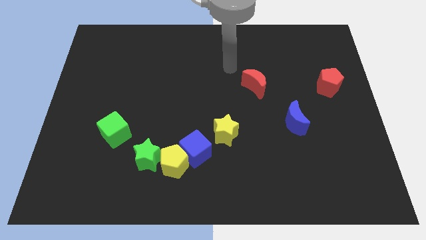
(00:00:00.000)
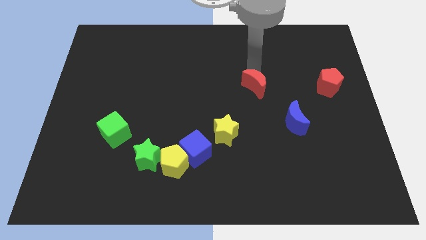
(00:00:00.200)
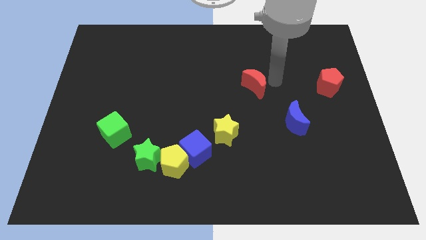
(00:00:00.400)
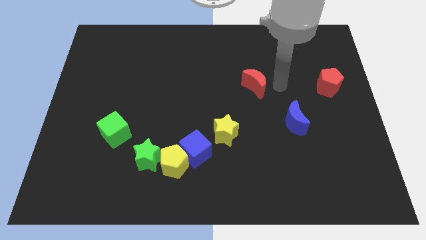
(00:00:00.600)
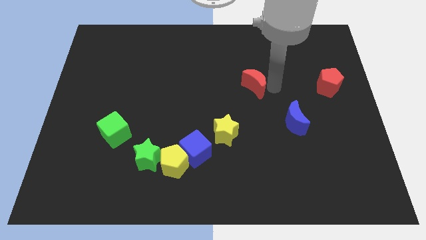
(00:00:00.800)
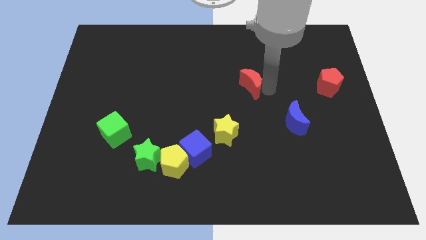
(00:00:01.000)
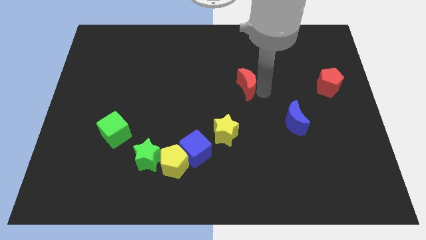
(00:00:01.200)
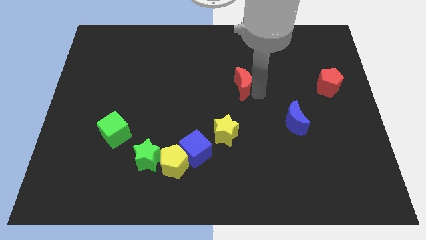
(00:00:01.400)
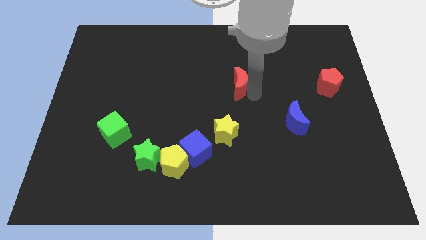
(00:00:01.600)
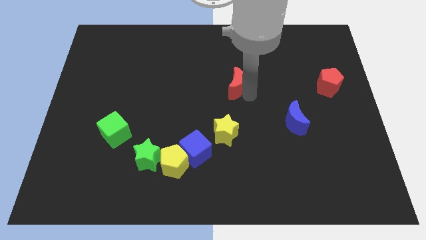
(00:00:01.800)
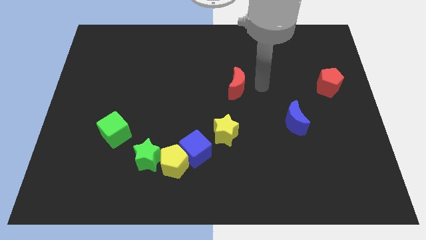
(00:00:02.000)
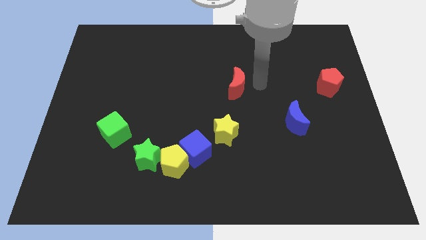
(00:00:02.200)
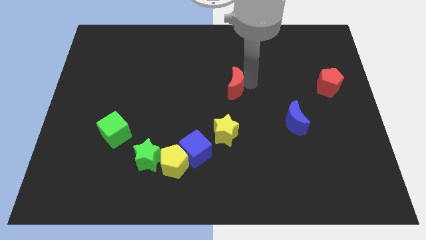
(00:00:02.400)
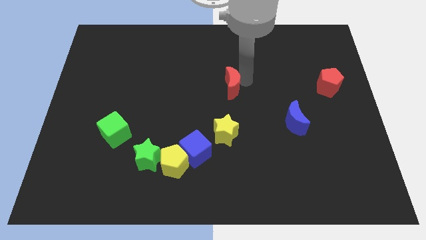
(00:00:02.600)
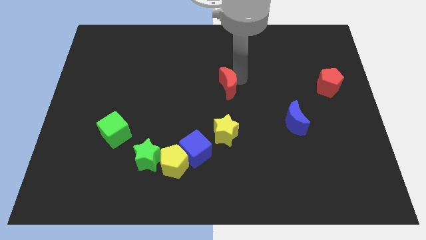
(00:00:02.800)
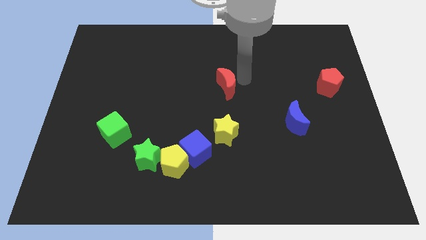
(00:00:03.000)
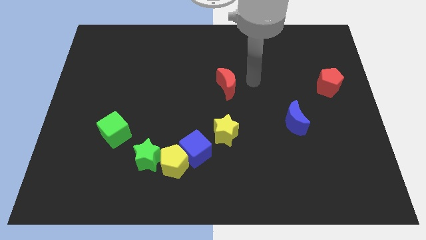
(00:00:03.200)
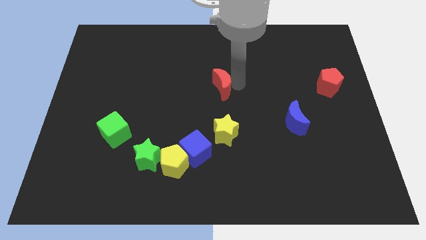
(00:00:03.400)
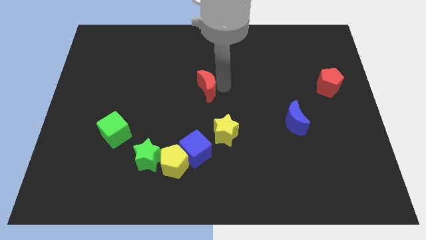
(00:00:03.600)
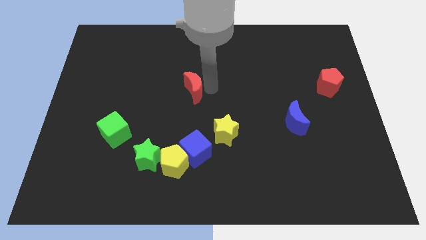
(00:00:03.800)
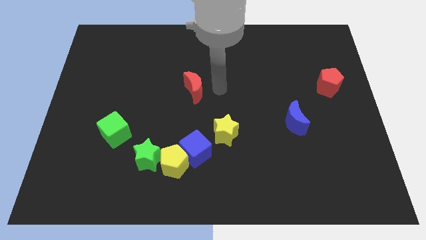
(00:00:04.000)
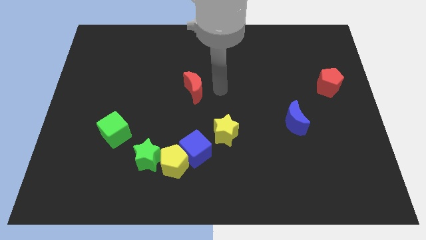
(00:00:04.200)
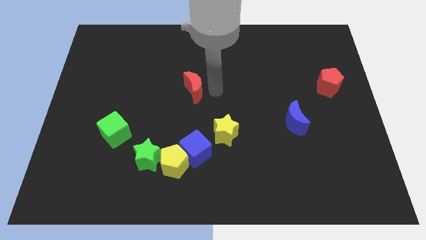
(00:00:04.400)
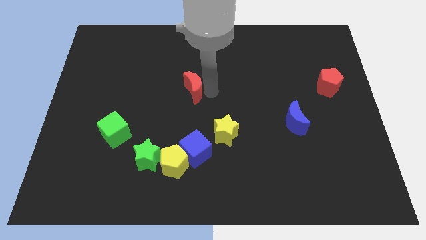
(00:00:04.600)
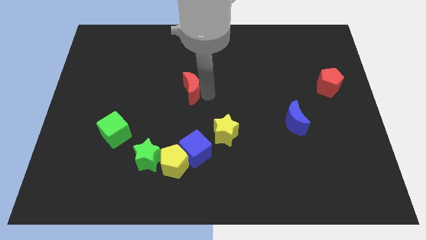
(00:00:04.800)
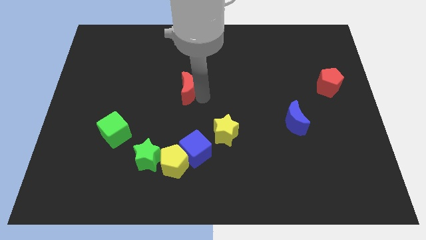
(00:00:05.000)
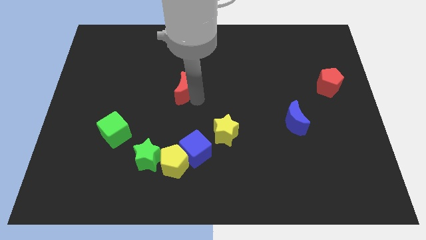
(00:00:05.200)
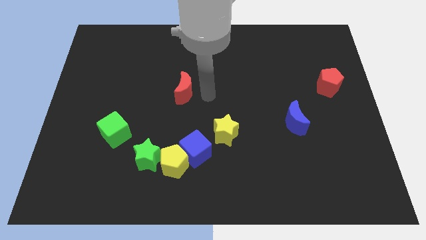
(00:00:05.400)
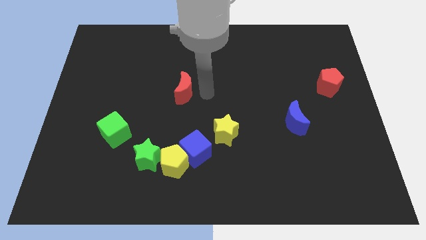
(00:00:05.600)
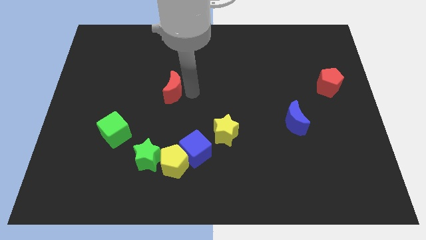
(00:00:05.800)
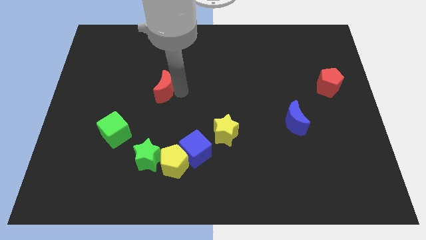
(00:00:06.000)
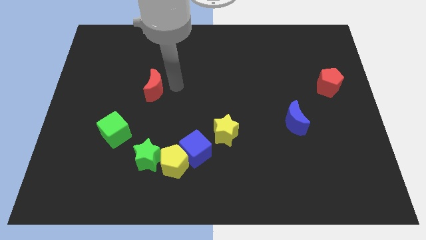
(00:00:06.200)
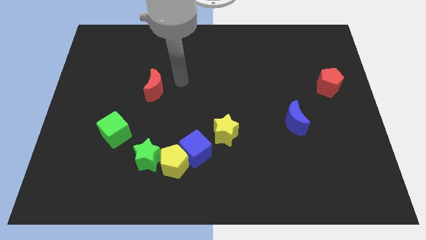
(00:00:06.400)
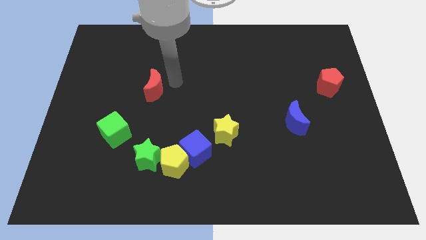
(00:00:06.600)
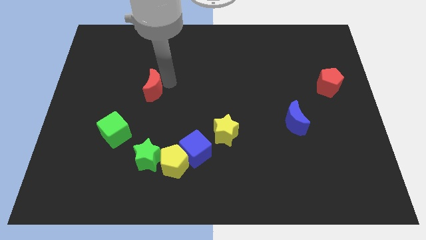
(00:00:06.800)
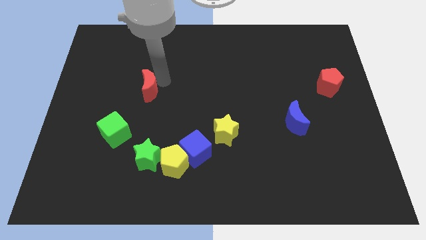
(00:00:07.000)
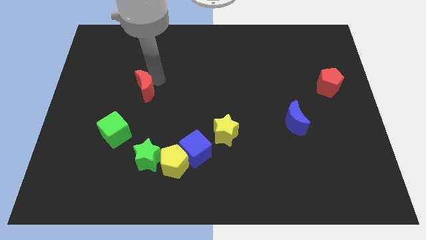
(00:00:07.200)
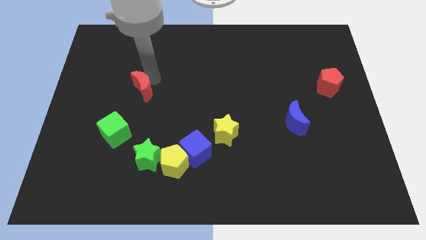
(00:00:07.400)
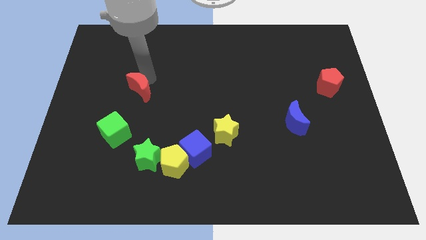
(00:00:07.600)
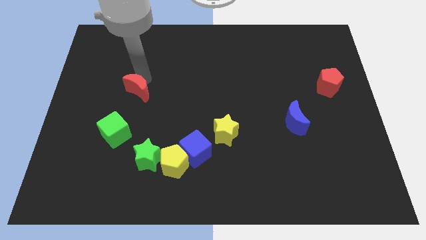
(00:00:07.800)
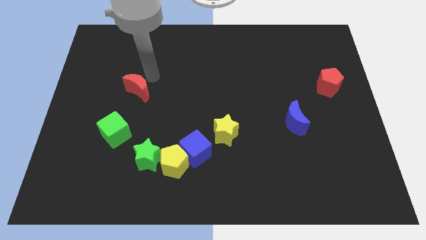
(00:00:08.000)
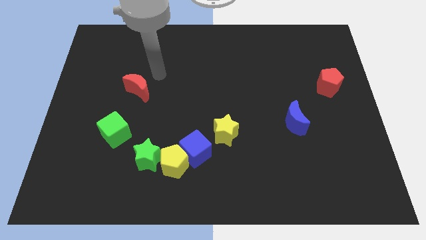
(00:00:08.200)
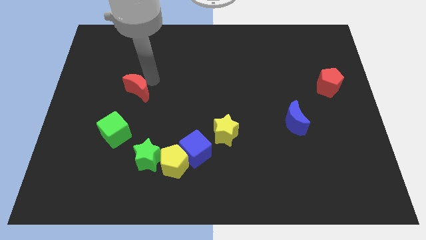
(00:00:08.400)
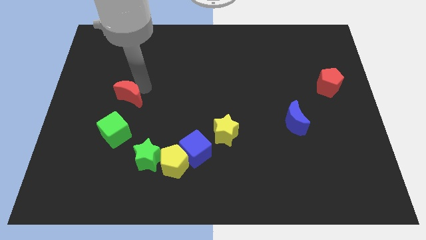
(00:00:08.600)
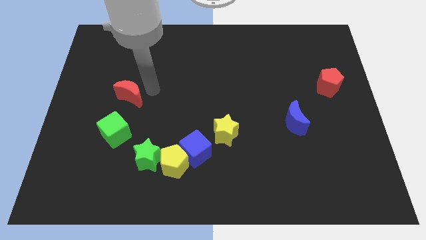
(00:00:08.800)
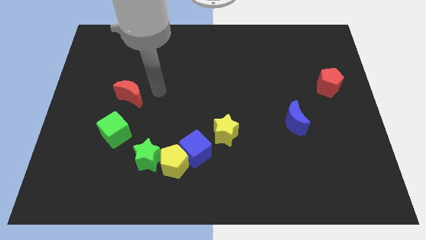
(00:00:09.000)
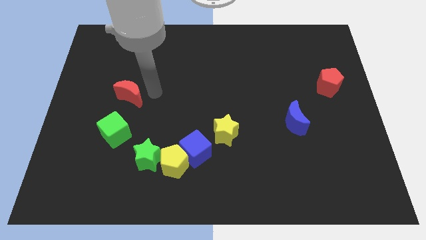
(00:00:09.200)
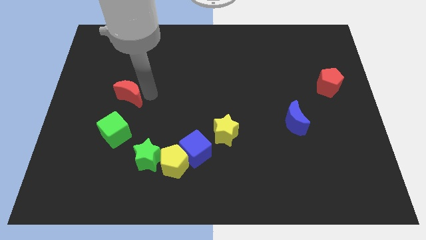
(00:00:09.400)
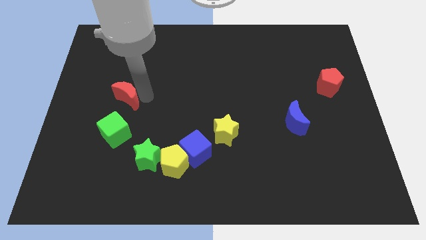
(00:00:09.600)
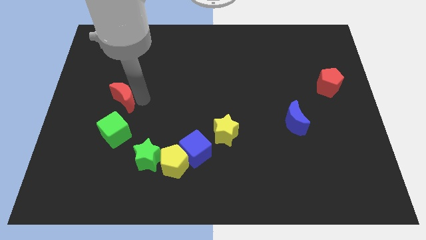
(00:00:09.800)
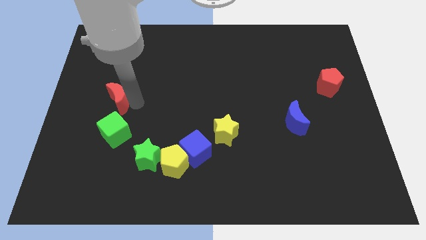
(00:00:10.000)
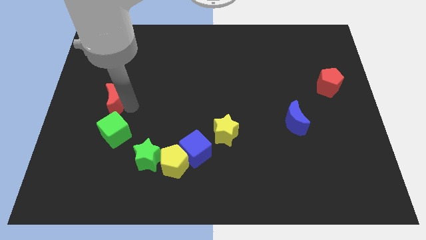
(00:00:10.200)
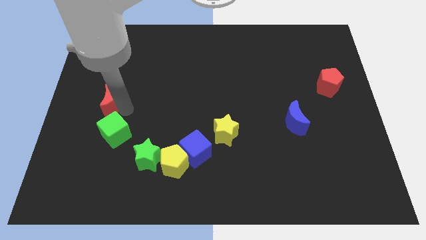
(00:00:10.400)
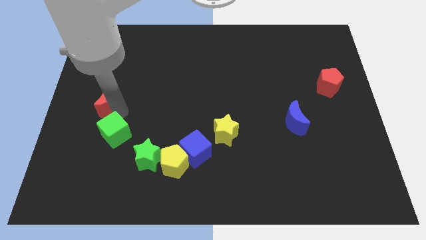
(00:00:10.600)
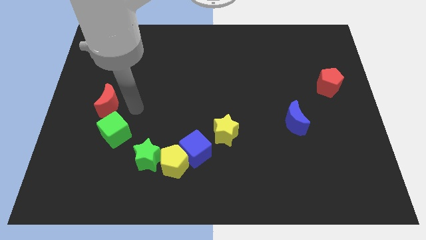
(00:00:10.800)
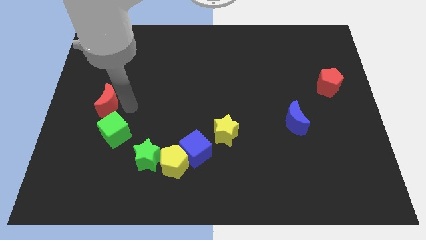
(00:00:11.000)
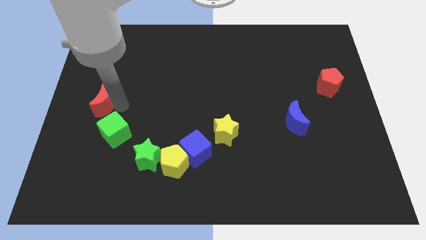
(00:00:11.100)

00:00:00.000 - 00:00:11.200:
slide the red moon to the left side of the board

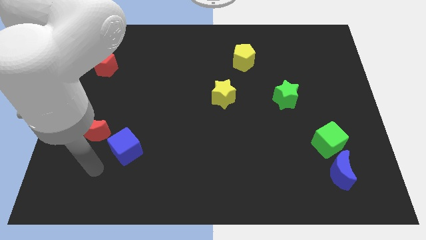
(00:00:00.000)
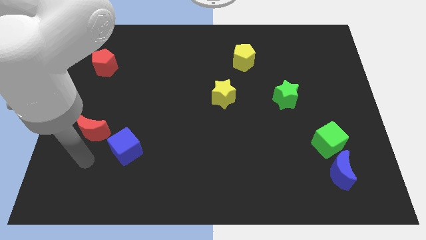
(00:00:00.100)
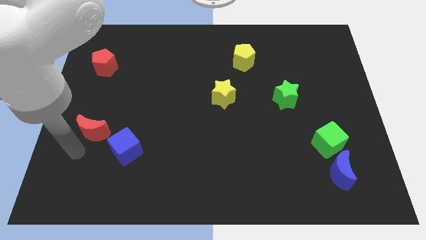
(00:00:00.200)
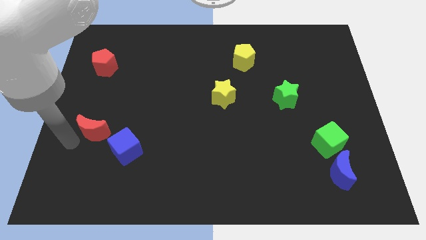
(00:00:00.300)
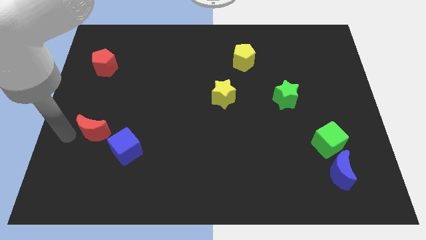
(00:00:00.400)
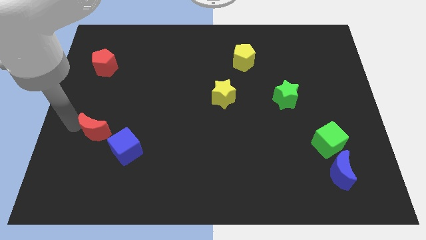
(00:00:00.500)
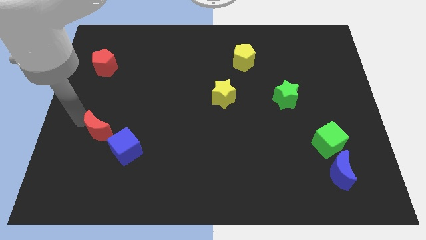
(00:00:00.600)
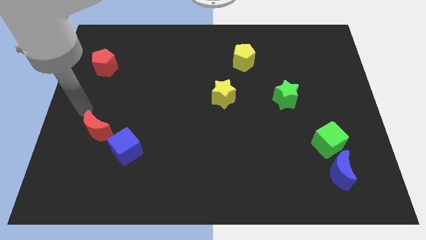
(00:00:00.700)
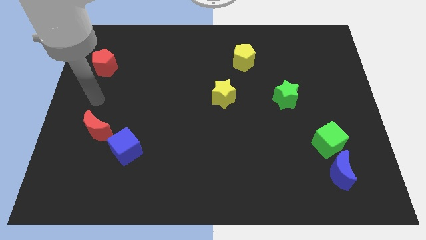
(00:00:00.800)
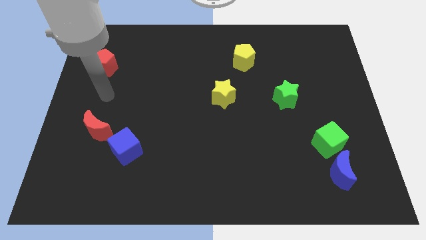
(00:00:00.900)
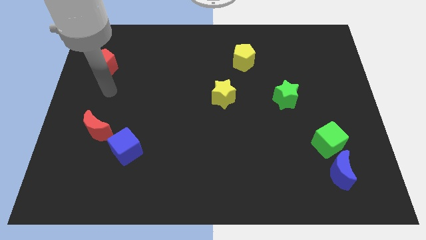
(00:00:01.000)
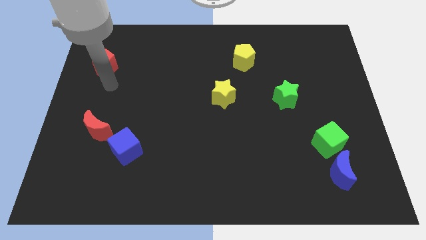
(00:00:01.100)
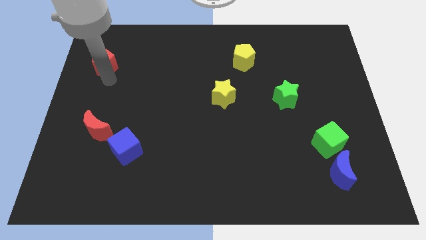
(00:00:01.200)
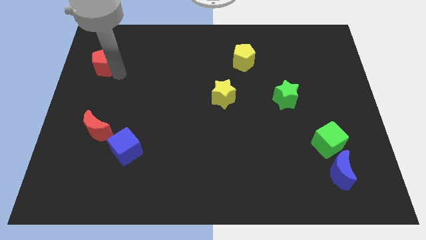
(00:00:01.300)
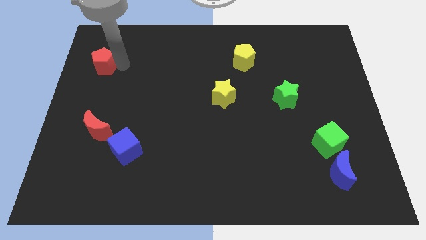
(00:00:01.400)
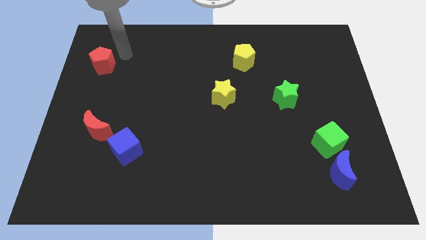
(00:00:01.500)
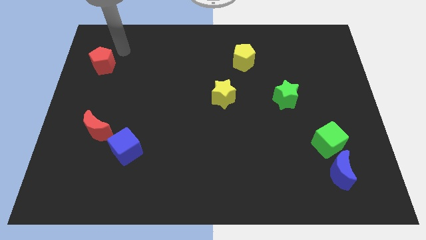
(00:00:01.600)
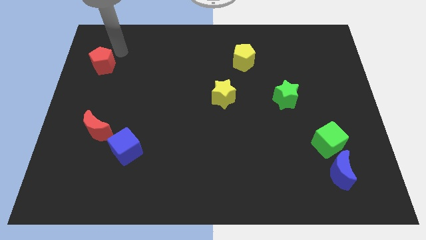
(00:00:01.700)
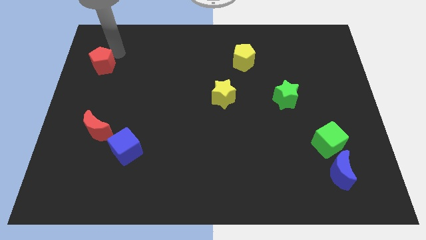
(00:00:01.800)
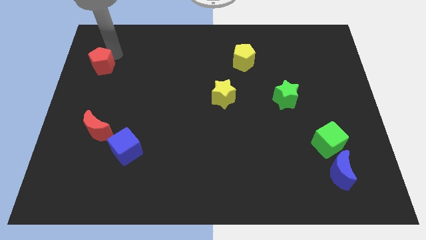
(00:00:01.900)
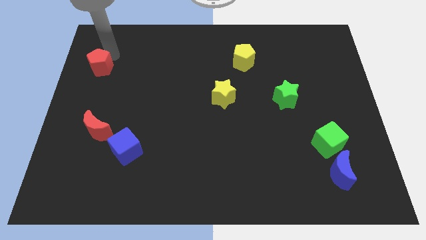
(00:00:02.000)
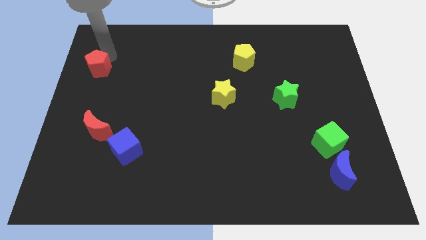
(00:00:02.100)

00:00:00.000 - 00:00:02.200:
put the red pentagon to the left side
